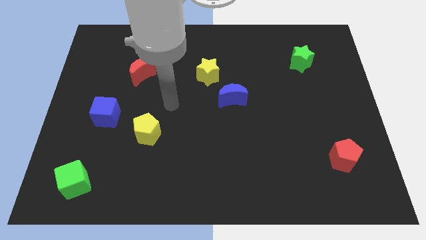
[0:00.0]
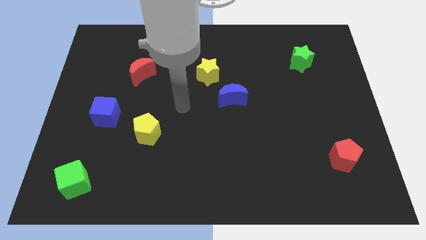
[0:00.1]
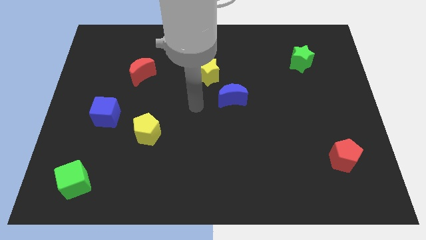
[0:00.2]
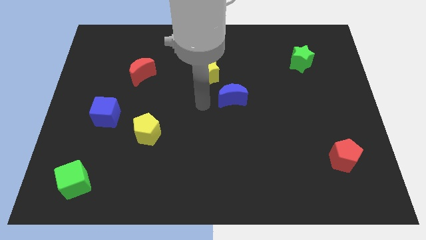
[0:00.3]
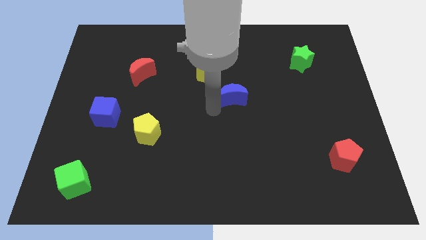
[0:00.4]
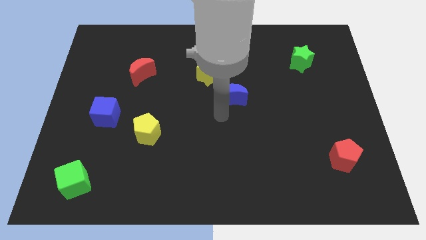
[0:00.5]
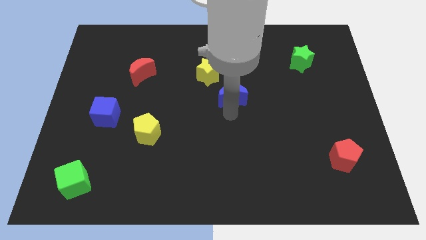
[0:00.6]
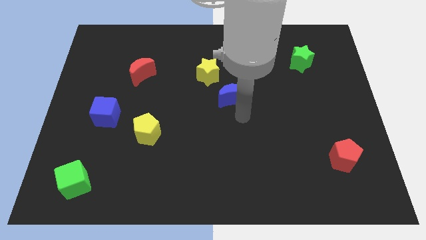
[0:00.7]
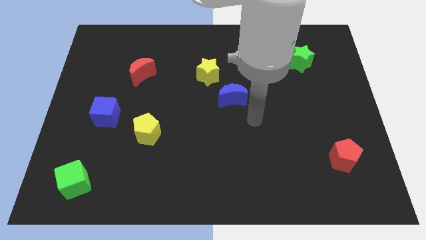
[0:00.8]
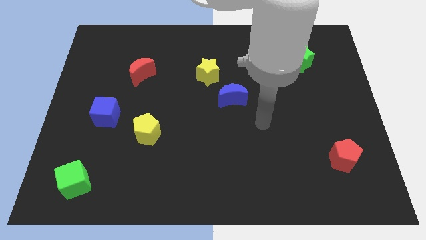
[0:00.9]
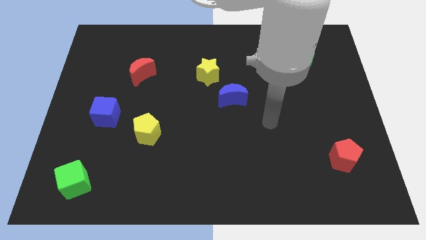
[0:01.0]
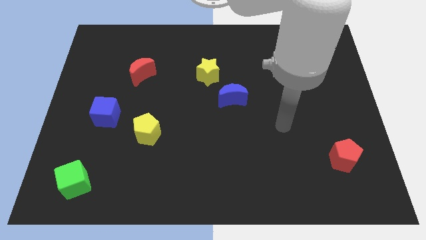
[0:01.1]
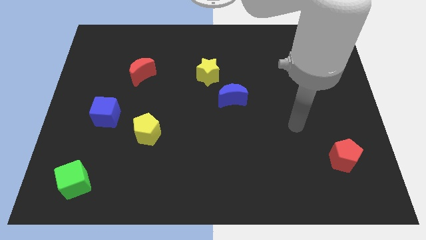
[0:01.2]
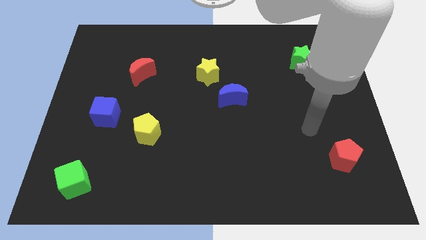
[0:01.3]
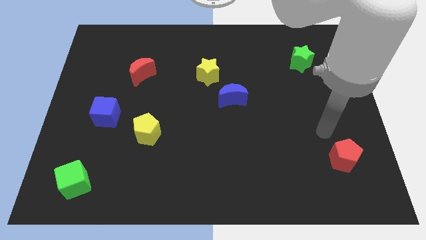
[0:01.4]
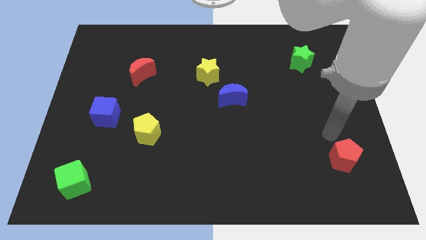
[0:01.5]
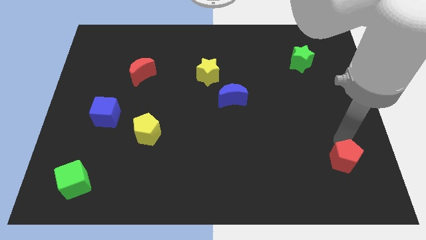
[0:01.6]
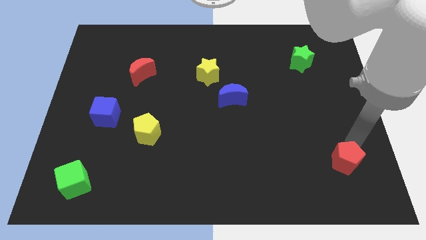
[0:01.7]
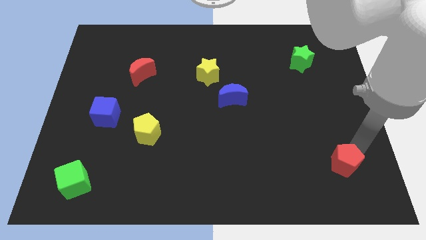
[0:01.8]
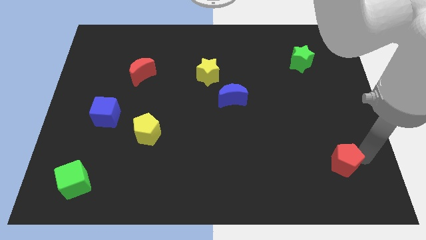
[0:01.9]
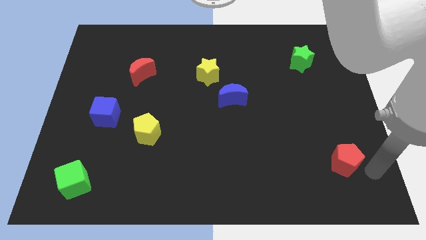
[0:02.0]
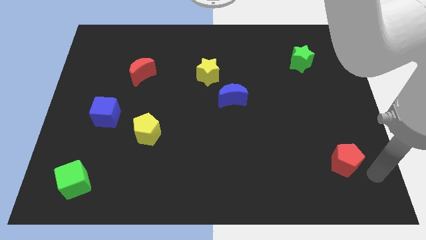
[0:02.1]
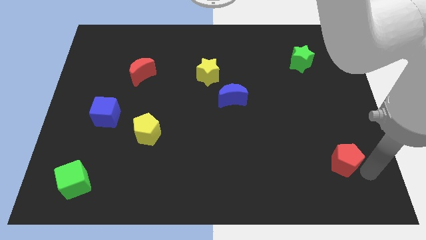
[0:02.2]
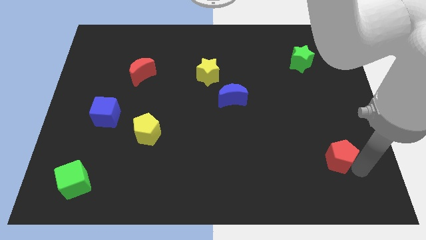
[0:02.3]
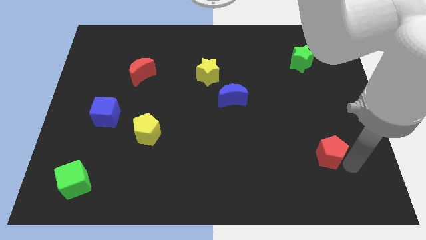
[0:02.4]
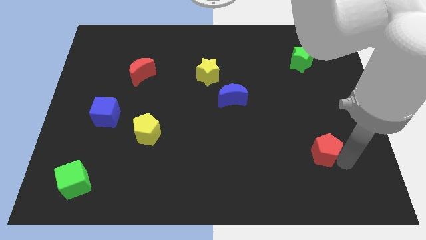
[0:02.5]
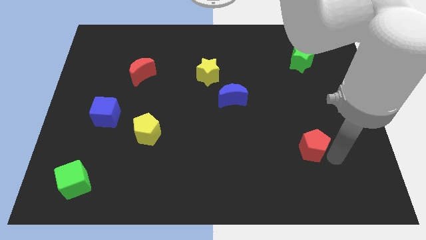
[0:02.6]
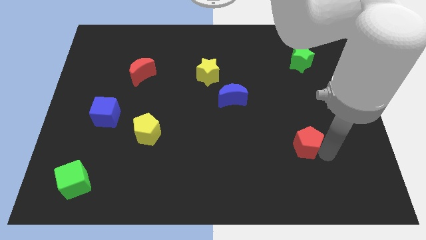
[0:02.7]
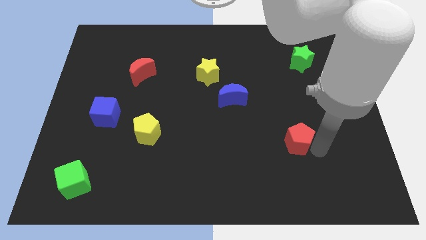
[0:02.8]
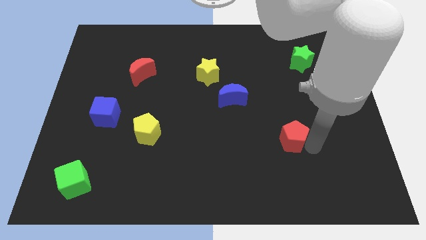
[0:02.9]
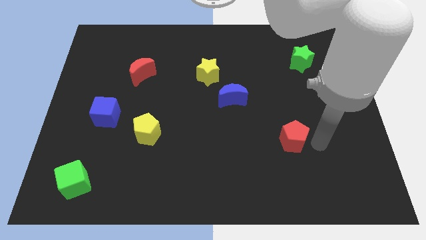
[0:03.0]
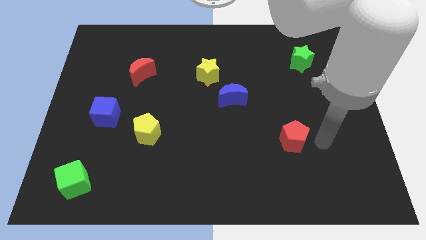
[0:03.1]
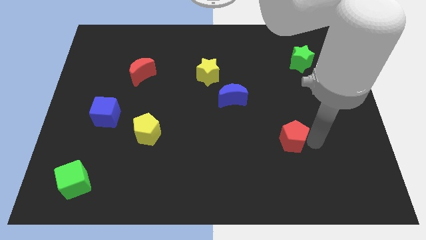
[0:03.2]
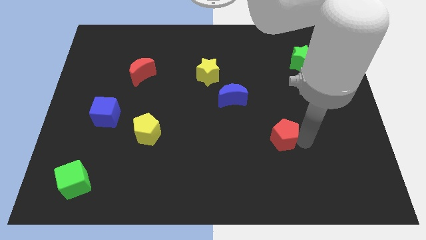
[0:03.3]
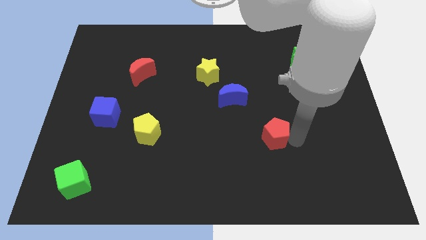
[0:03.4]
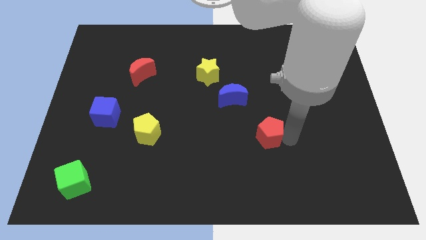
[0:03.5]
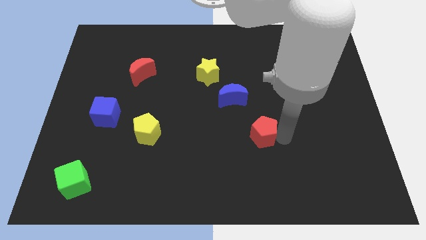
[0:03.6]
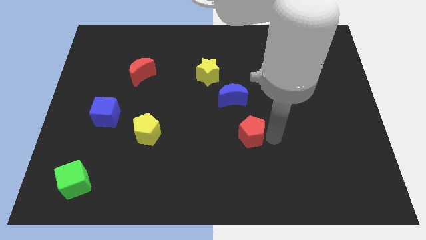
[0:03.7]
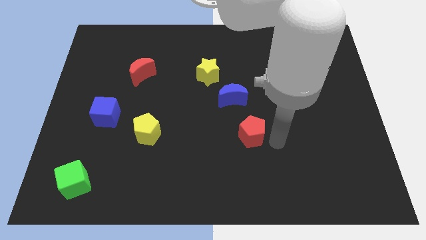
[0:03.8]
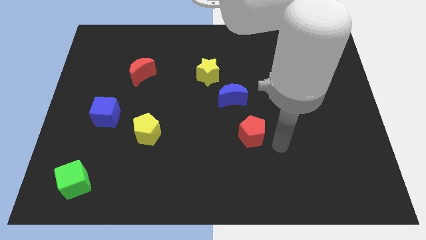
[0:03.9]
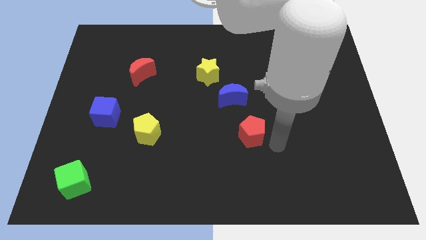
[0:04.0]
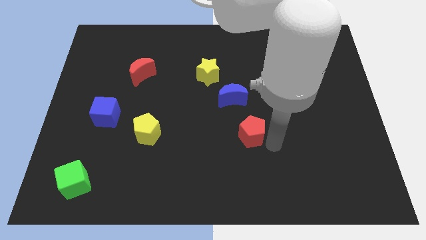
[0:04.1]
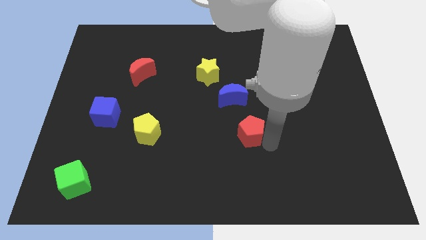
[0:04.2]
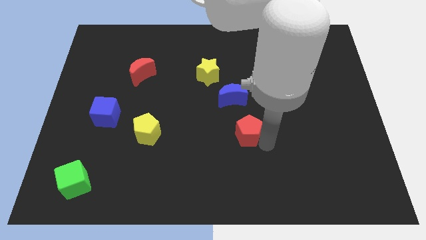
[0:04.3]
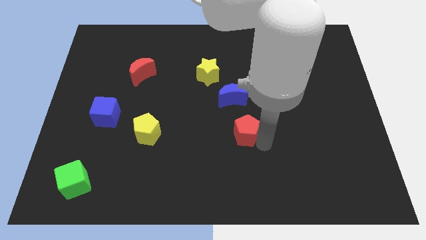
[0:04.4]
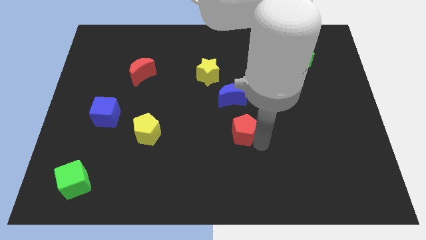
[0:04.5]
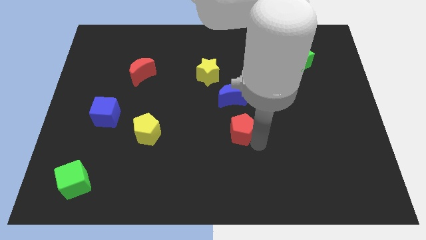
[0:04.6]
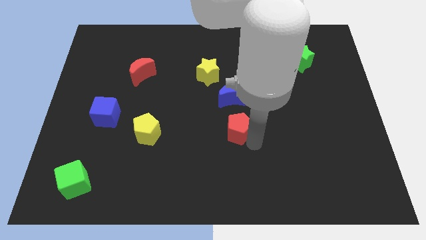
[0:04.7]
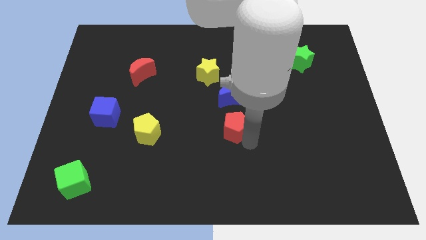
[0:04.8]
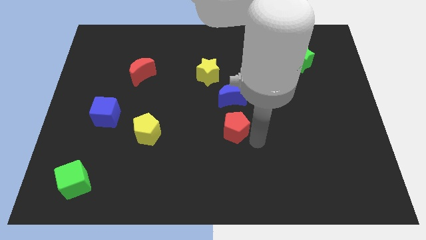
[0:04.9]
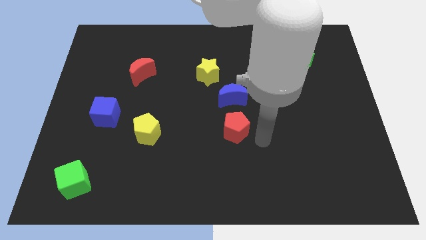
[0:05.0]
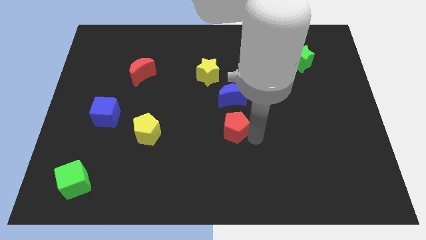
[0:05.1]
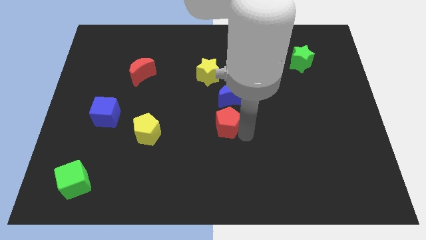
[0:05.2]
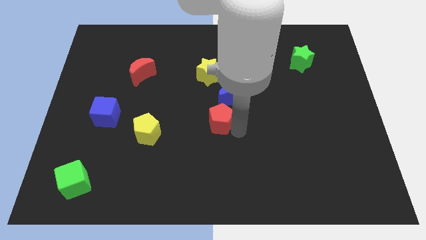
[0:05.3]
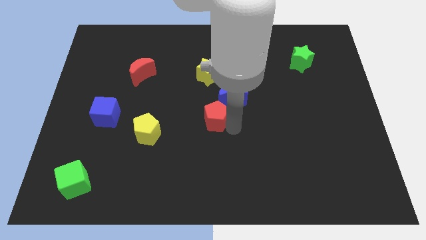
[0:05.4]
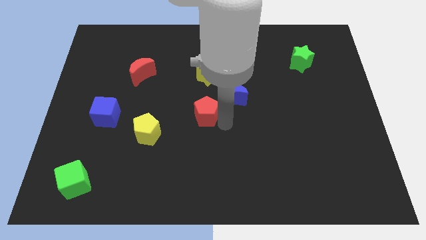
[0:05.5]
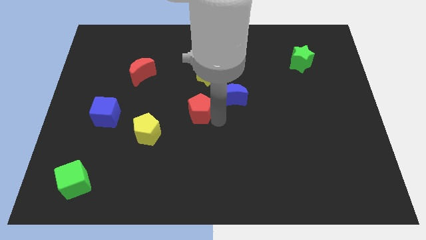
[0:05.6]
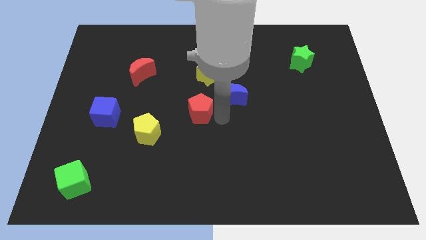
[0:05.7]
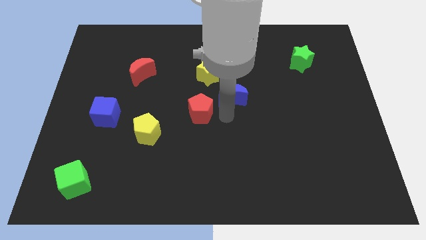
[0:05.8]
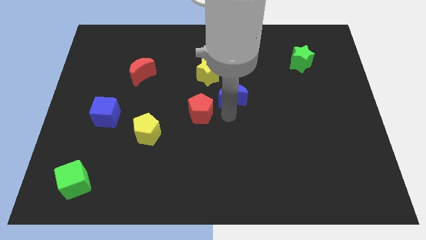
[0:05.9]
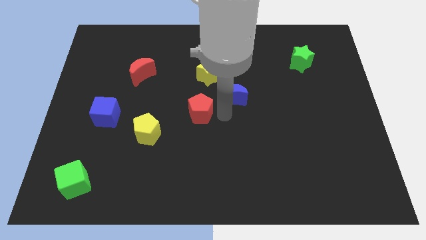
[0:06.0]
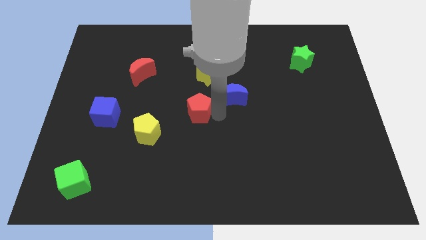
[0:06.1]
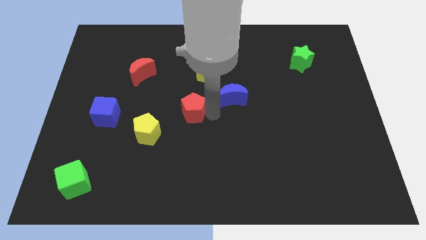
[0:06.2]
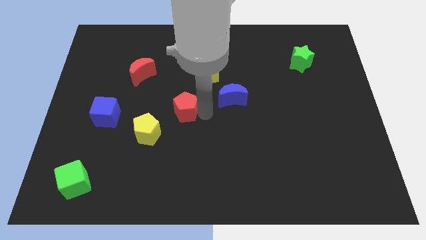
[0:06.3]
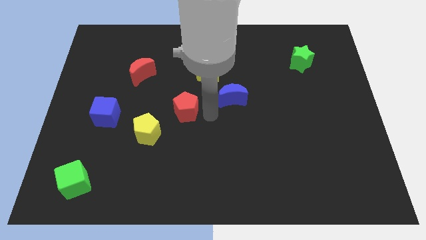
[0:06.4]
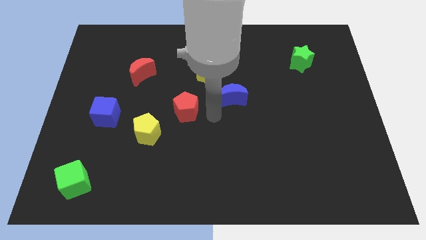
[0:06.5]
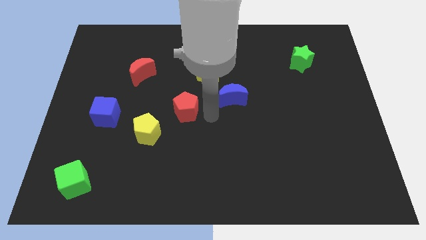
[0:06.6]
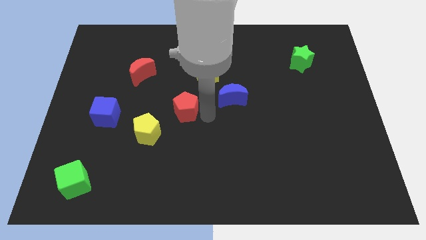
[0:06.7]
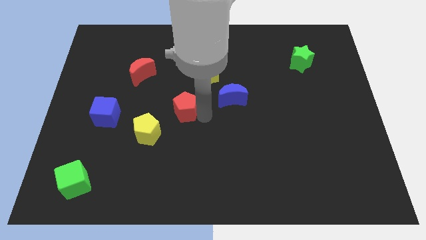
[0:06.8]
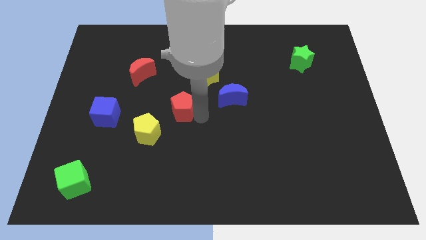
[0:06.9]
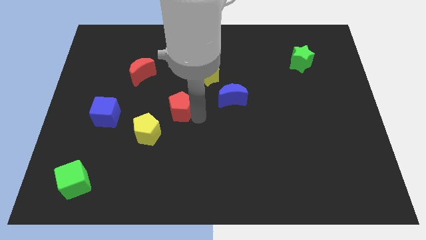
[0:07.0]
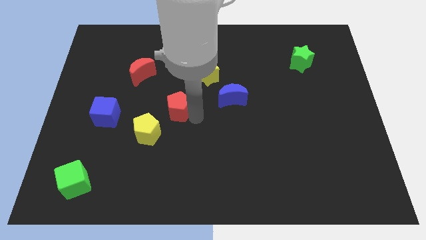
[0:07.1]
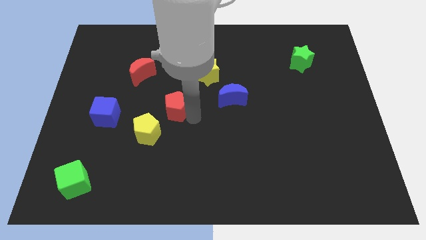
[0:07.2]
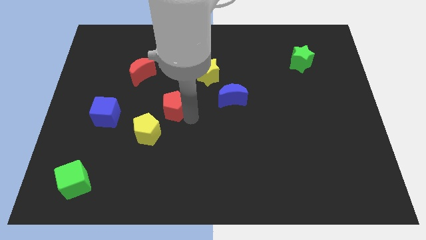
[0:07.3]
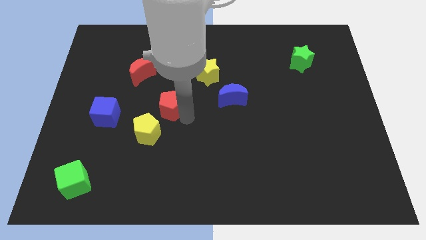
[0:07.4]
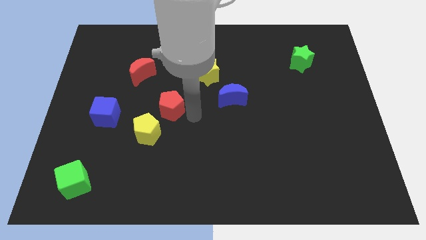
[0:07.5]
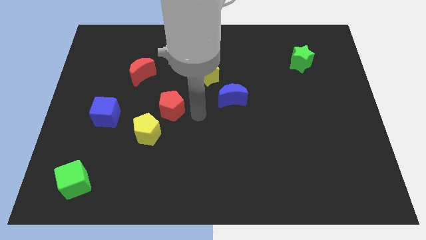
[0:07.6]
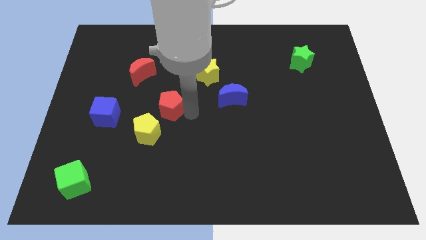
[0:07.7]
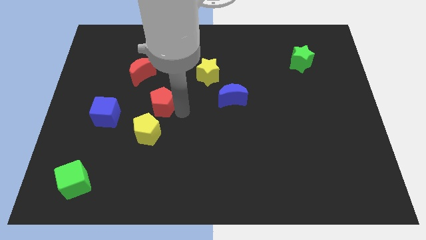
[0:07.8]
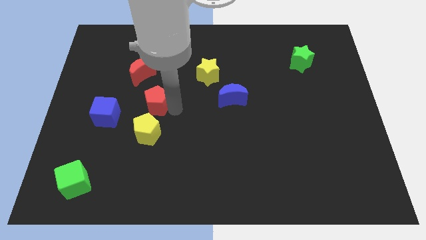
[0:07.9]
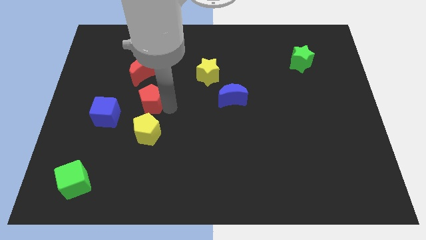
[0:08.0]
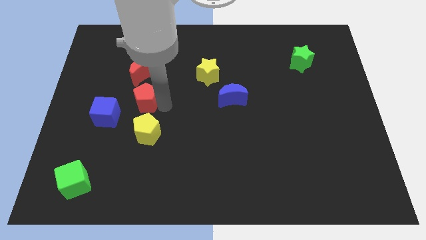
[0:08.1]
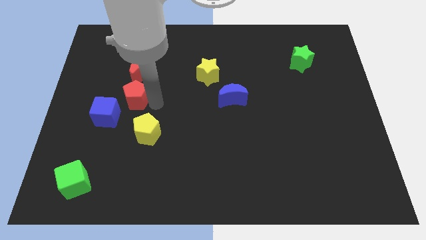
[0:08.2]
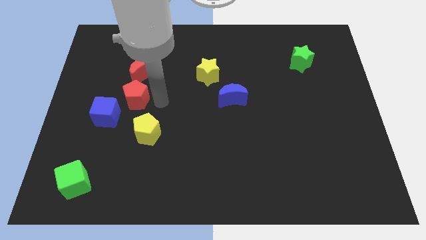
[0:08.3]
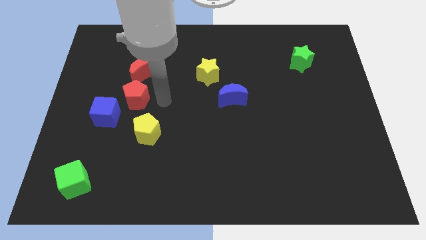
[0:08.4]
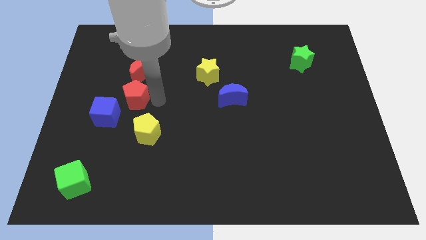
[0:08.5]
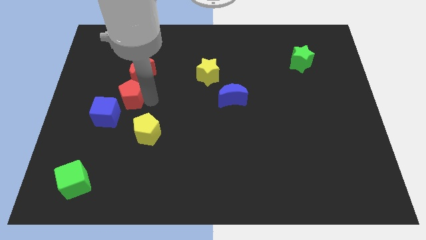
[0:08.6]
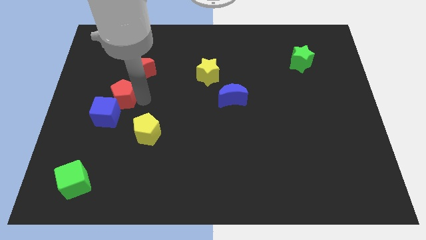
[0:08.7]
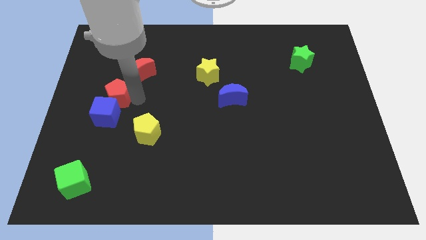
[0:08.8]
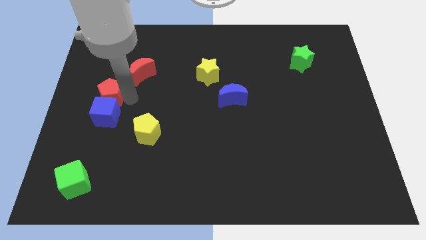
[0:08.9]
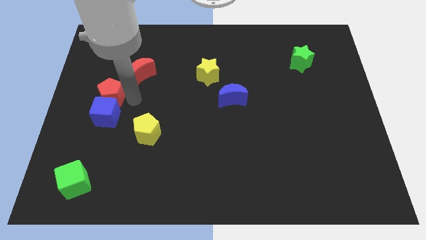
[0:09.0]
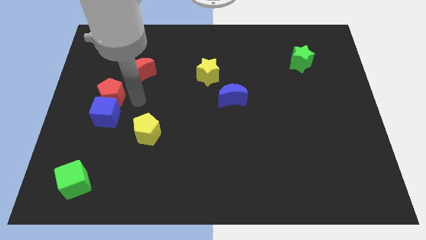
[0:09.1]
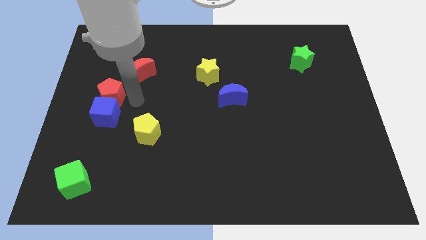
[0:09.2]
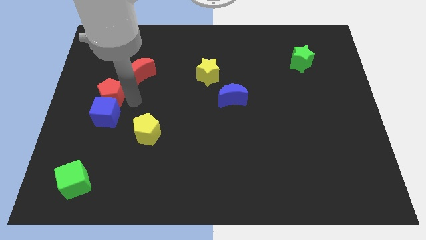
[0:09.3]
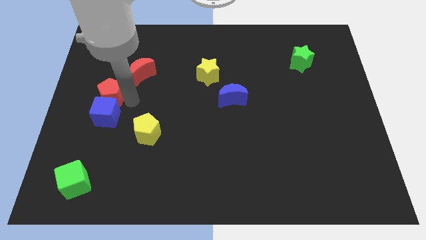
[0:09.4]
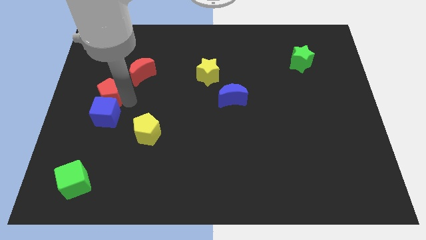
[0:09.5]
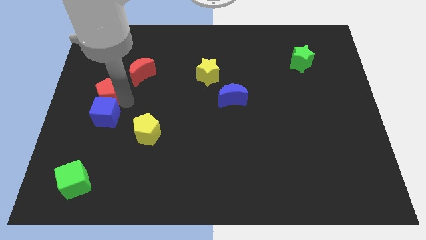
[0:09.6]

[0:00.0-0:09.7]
slide the red pentagon to the left side of the board
